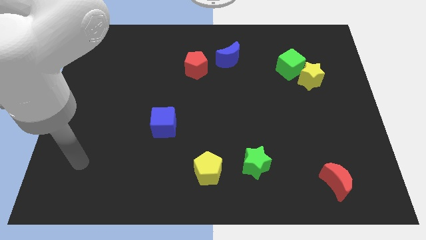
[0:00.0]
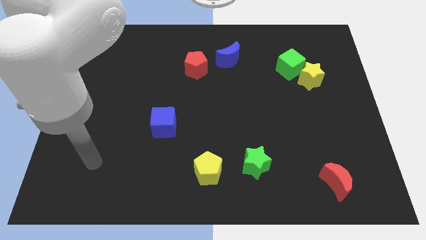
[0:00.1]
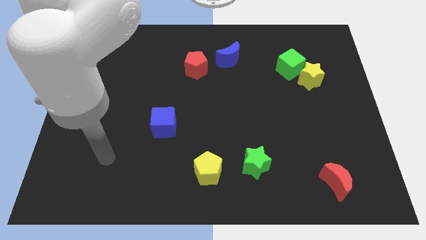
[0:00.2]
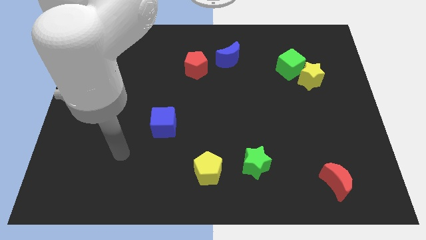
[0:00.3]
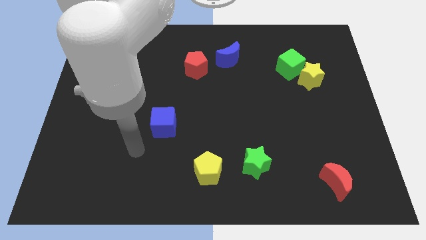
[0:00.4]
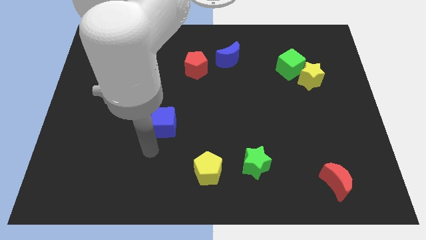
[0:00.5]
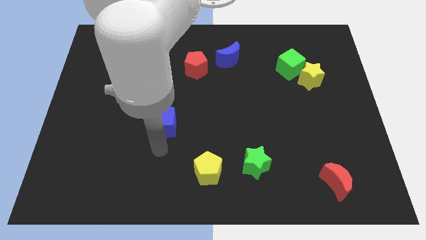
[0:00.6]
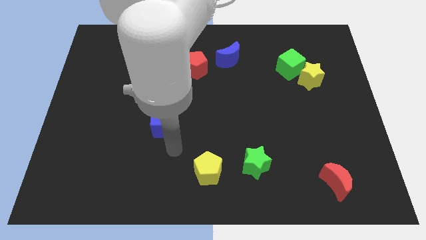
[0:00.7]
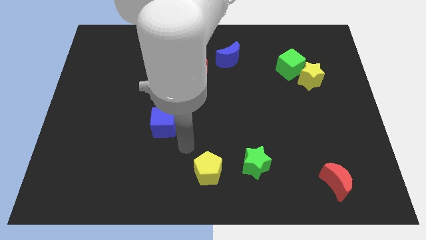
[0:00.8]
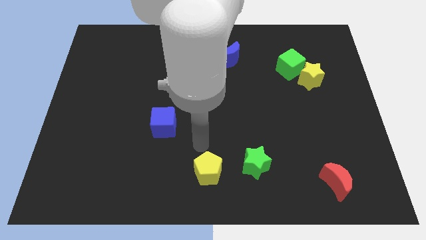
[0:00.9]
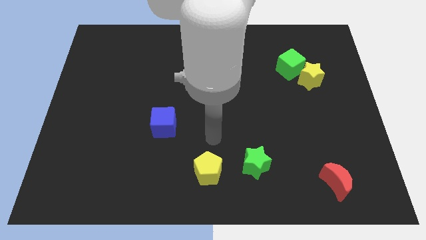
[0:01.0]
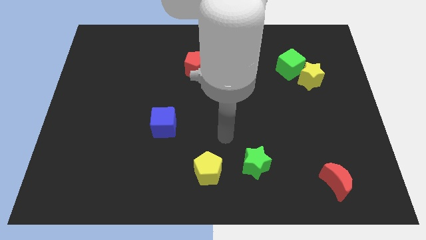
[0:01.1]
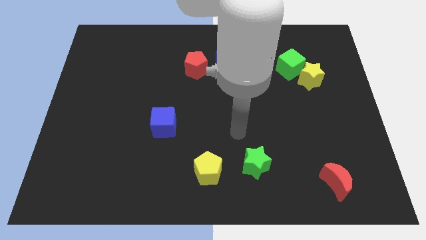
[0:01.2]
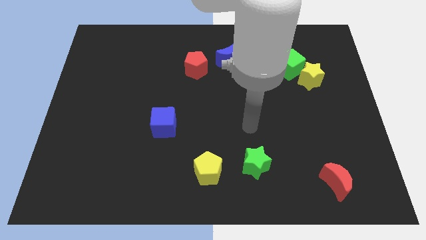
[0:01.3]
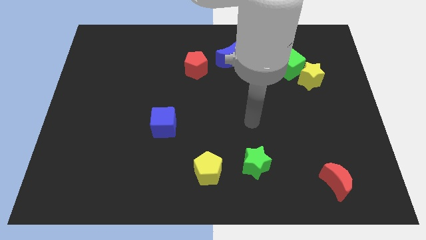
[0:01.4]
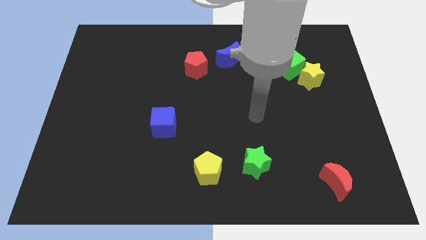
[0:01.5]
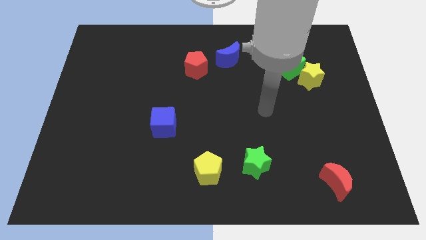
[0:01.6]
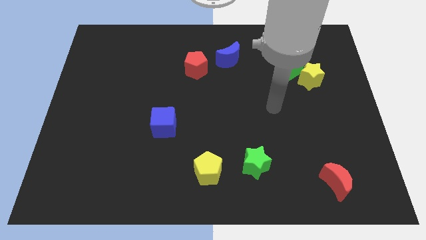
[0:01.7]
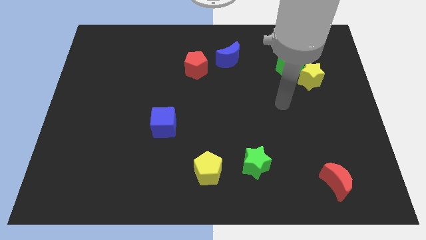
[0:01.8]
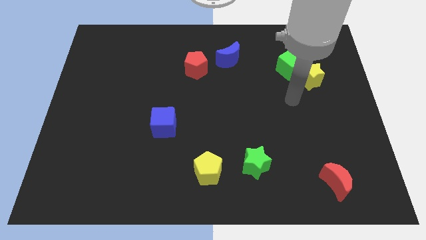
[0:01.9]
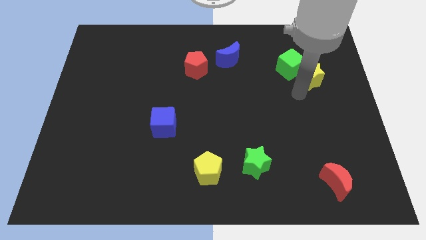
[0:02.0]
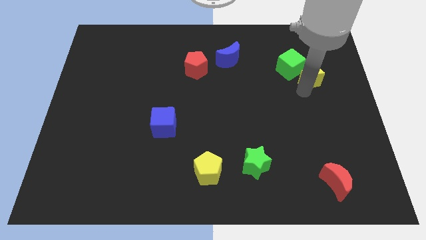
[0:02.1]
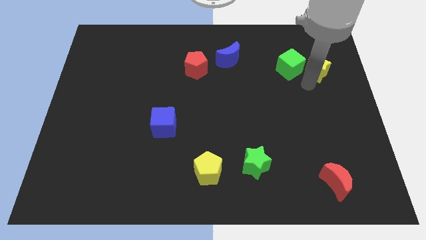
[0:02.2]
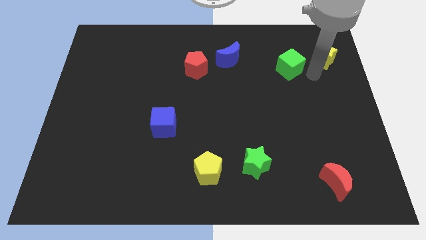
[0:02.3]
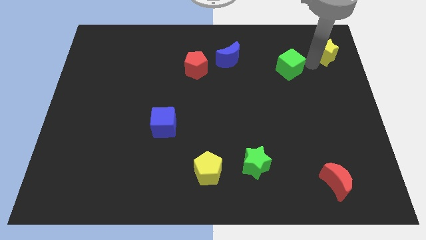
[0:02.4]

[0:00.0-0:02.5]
pull the green cube apart from the yellow star

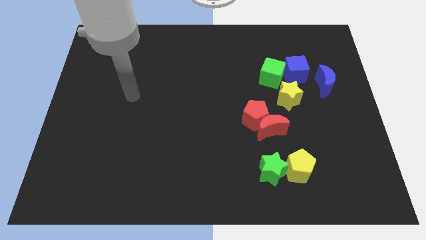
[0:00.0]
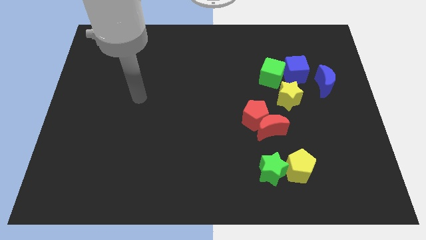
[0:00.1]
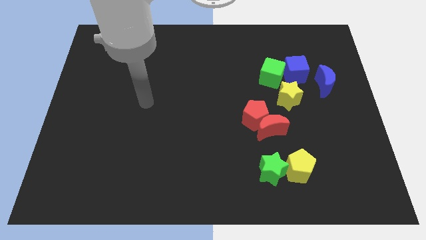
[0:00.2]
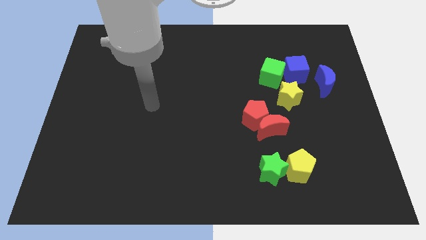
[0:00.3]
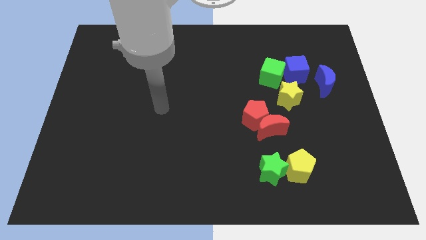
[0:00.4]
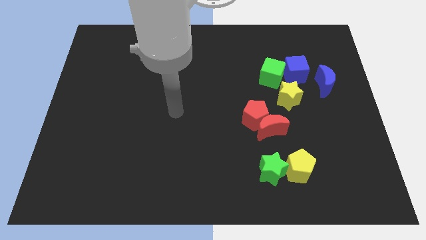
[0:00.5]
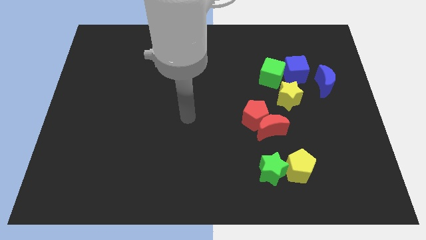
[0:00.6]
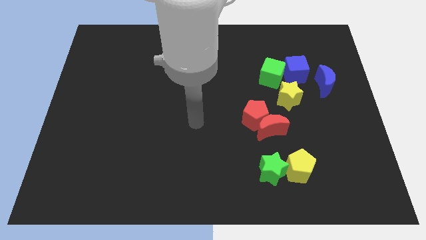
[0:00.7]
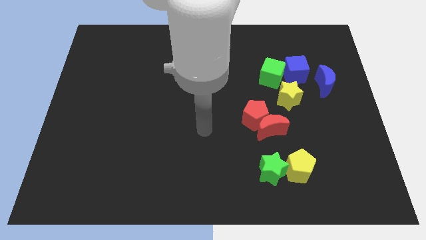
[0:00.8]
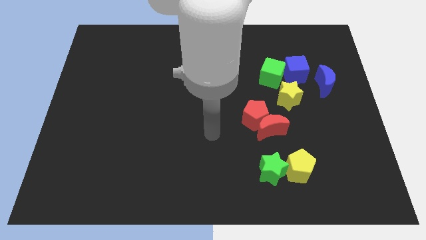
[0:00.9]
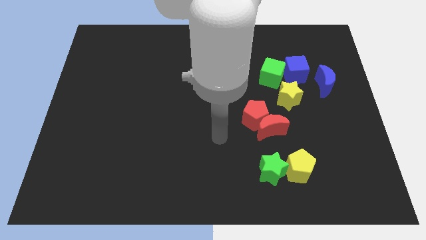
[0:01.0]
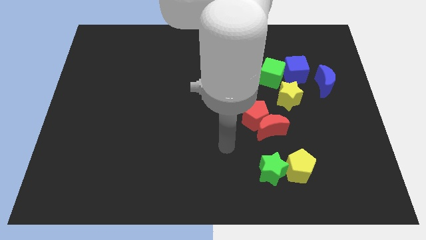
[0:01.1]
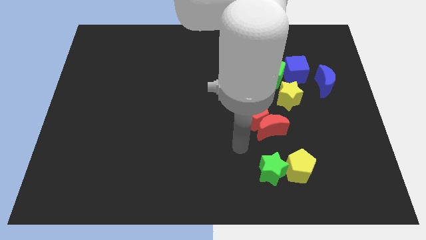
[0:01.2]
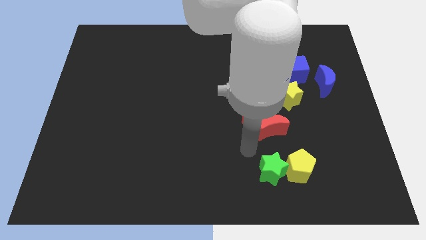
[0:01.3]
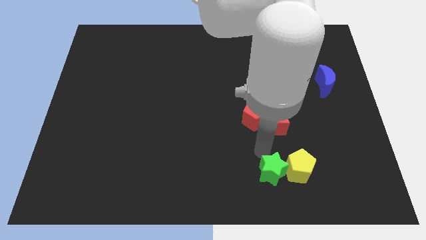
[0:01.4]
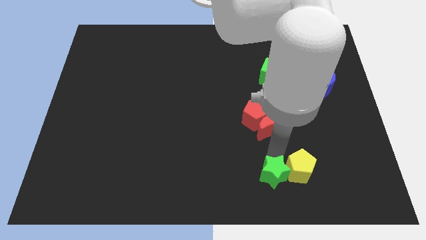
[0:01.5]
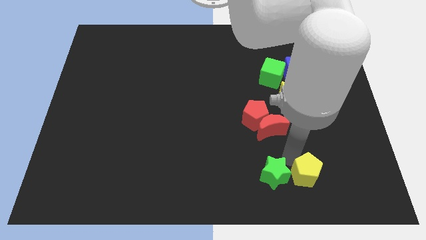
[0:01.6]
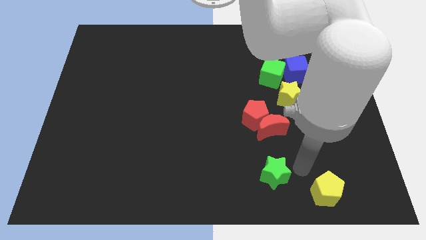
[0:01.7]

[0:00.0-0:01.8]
pull the green star apart from the yellow pentagon

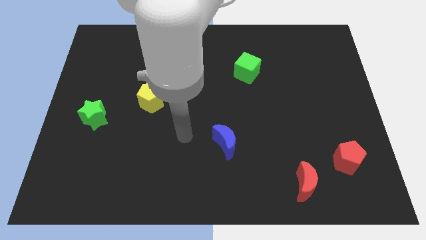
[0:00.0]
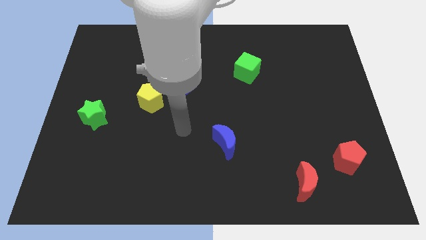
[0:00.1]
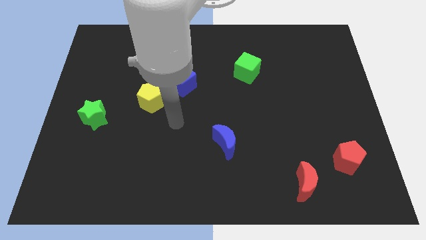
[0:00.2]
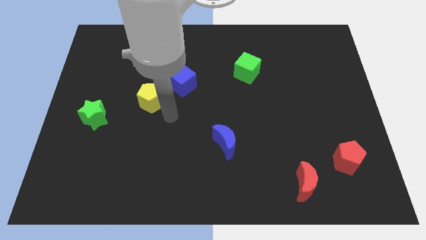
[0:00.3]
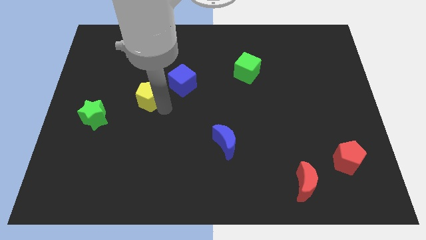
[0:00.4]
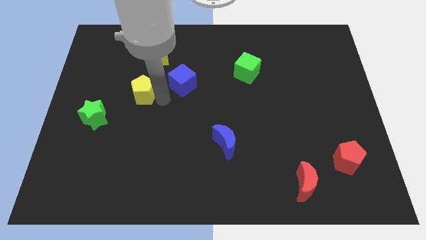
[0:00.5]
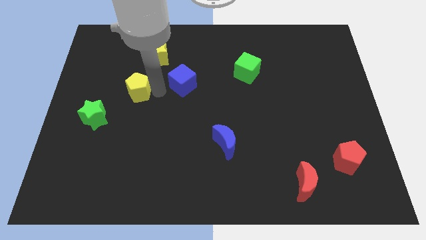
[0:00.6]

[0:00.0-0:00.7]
pull the blue cube apart from the yellow pentagon

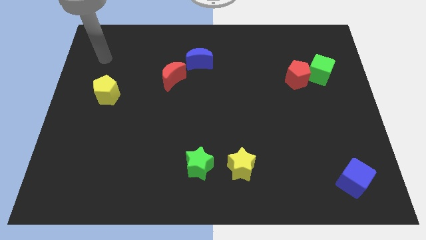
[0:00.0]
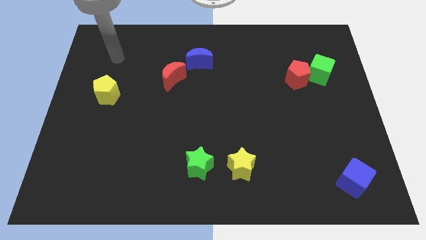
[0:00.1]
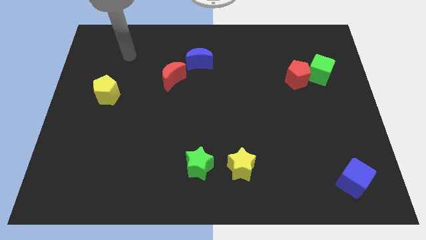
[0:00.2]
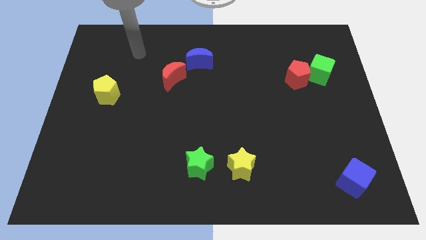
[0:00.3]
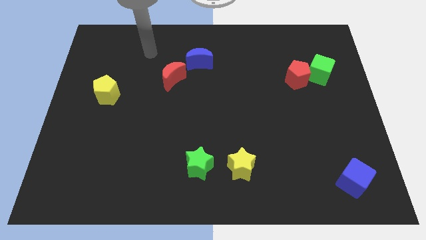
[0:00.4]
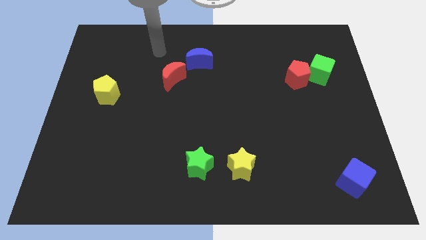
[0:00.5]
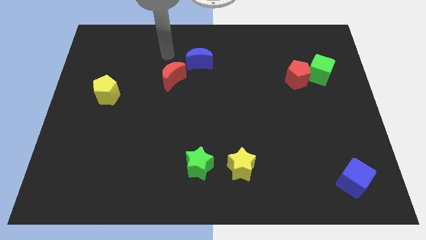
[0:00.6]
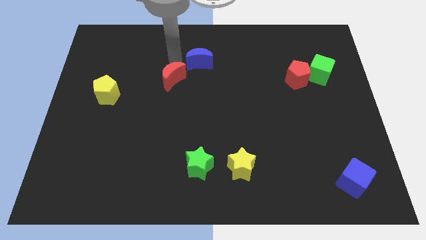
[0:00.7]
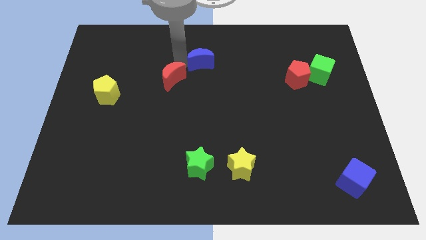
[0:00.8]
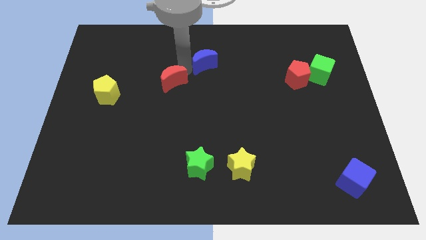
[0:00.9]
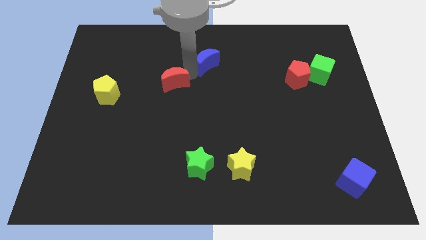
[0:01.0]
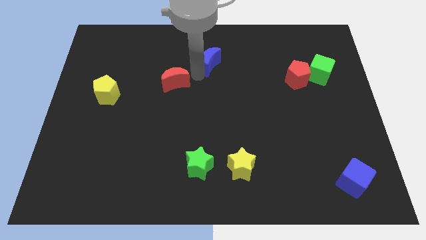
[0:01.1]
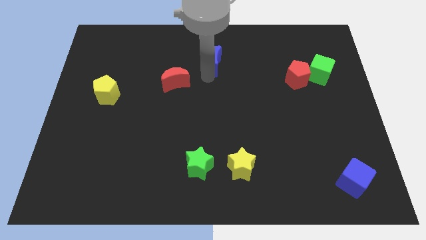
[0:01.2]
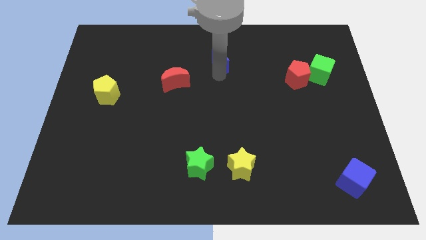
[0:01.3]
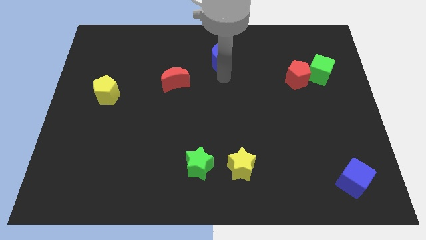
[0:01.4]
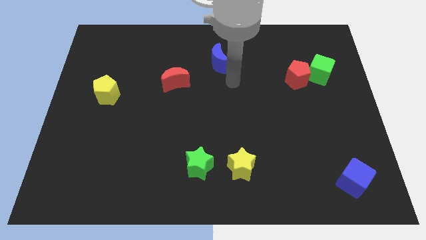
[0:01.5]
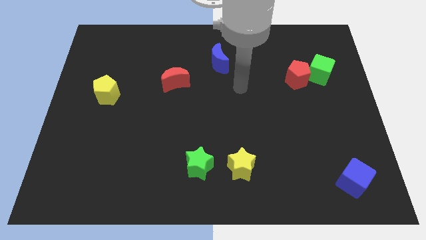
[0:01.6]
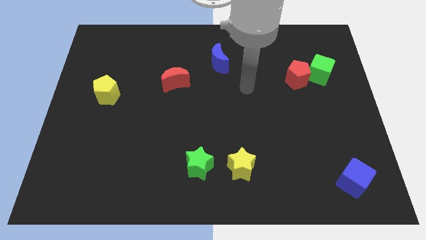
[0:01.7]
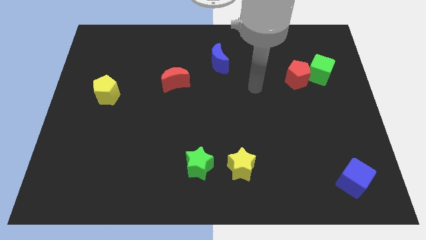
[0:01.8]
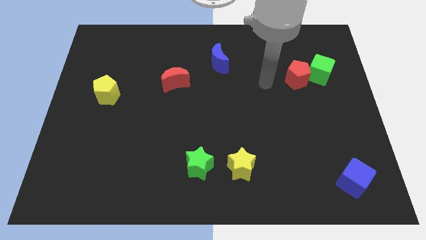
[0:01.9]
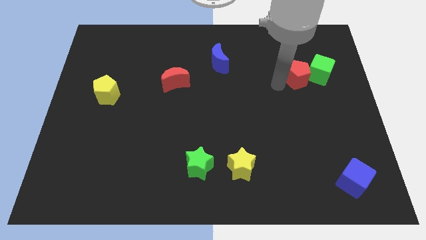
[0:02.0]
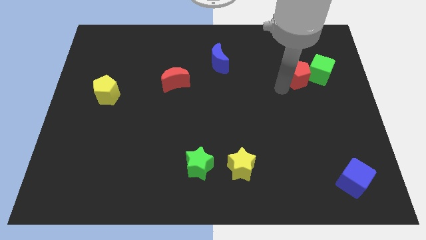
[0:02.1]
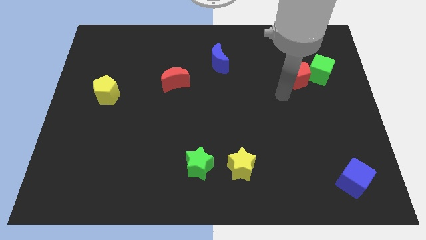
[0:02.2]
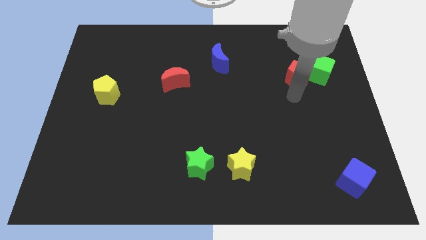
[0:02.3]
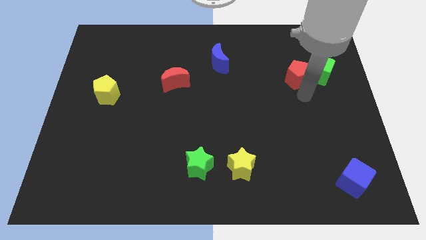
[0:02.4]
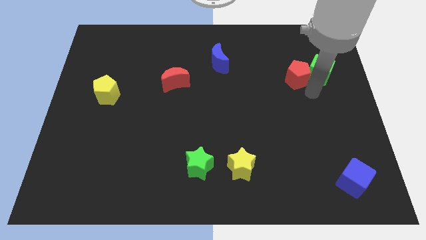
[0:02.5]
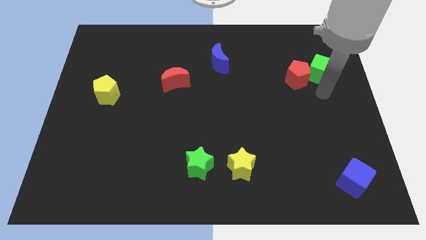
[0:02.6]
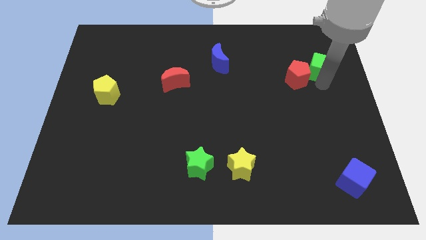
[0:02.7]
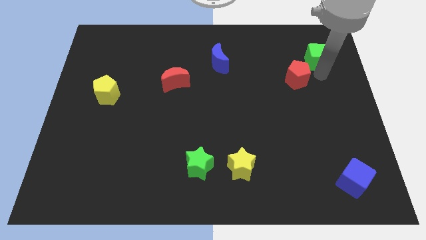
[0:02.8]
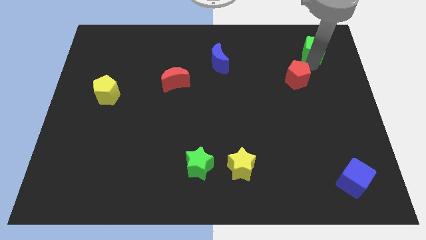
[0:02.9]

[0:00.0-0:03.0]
separate the red pentagon from the green cube

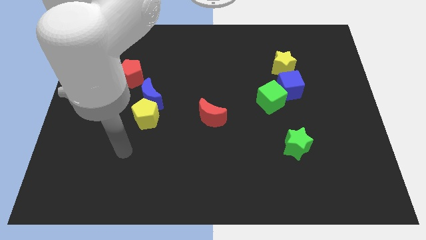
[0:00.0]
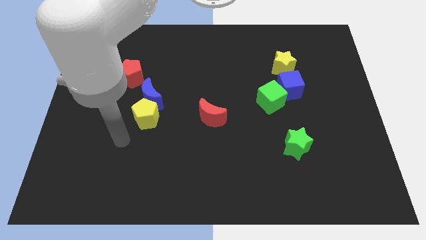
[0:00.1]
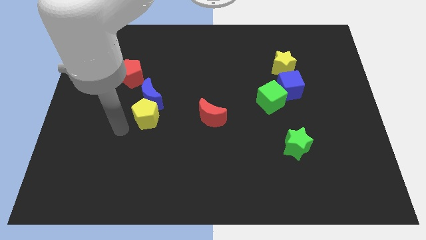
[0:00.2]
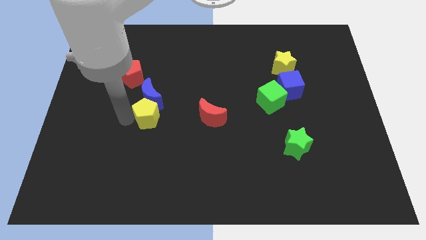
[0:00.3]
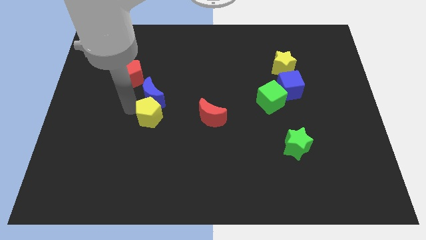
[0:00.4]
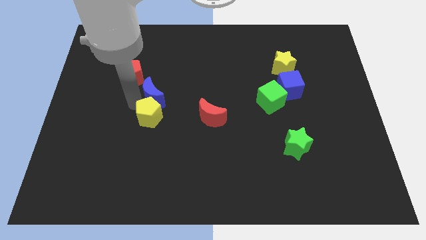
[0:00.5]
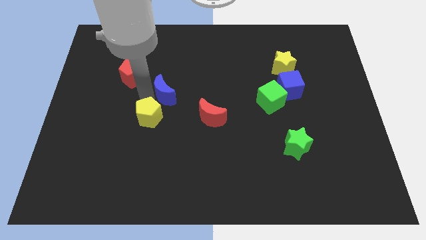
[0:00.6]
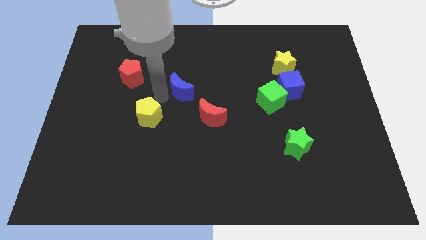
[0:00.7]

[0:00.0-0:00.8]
separate the yellow pentagon from the blue moon

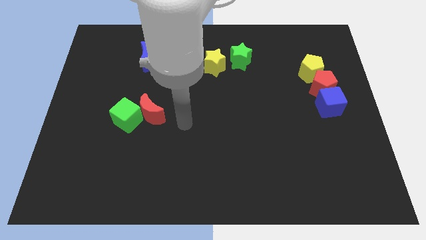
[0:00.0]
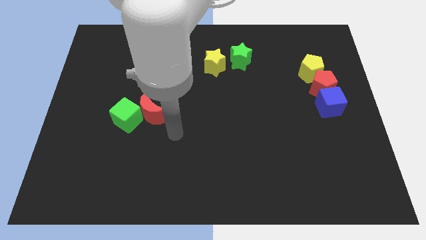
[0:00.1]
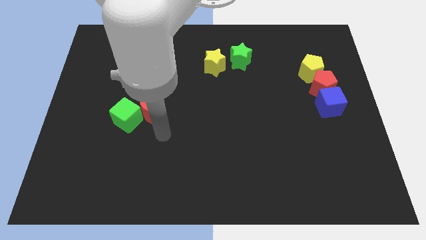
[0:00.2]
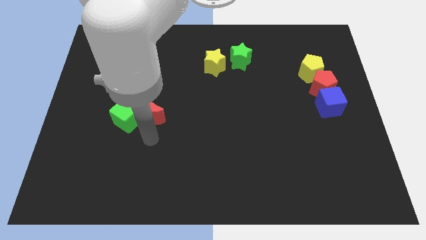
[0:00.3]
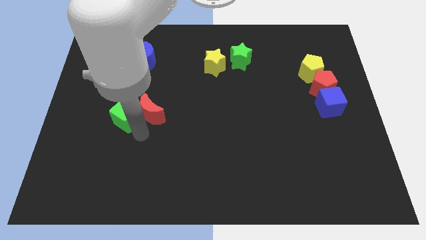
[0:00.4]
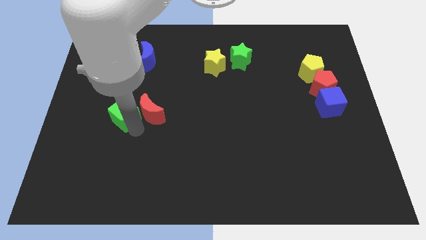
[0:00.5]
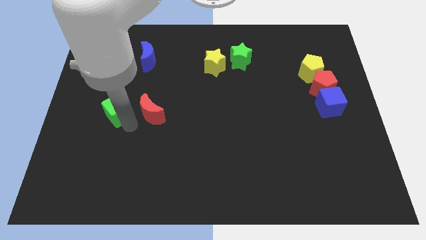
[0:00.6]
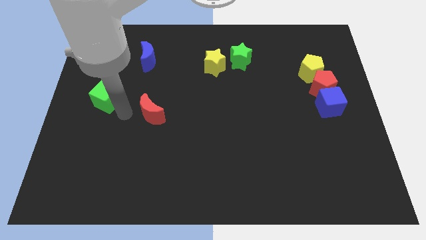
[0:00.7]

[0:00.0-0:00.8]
pull the red moon apart from the green cube
